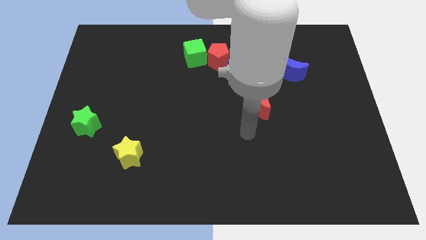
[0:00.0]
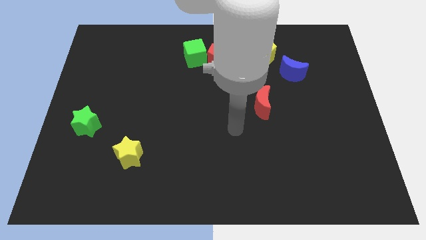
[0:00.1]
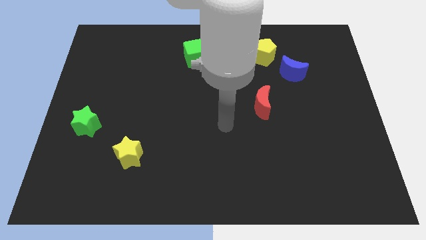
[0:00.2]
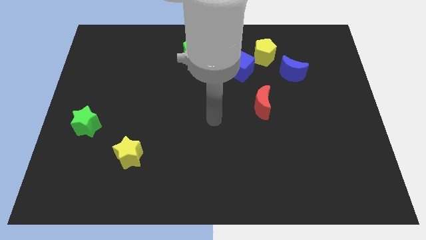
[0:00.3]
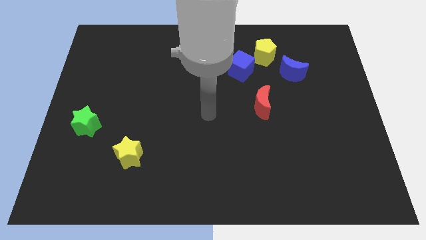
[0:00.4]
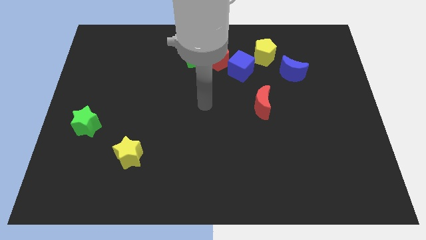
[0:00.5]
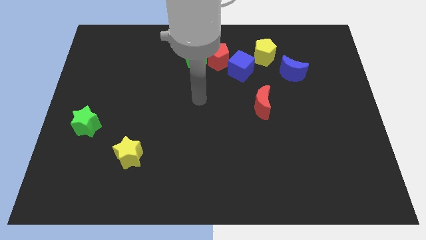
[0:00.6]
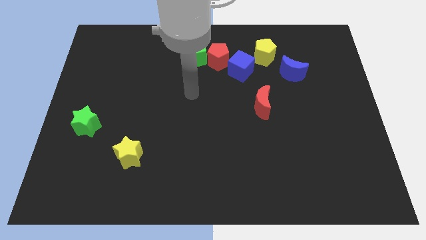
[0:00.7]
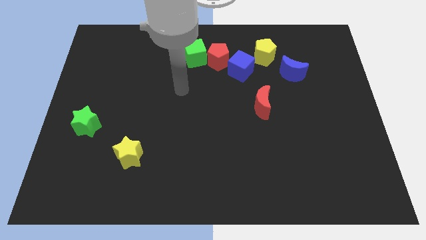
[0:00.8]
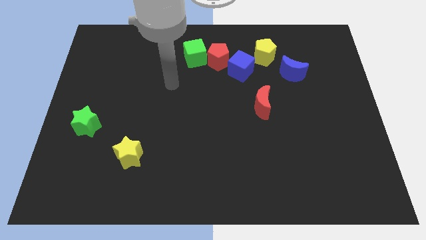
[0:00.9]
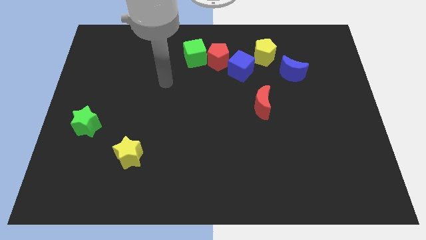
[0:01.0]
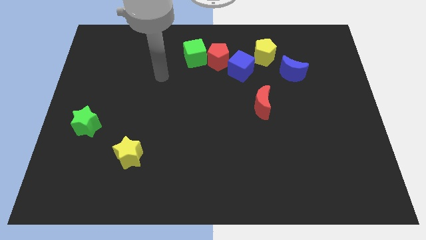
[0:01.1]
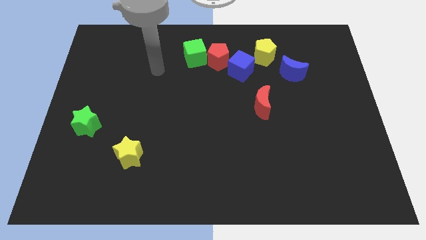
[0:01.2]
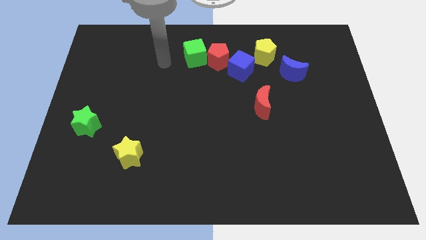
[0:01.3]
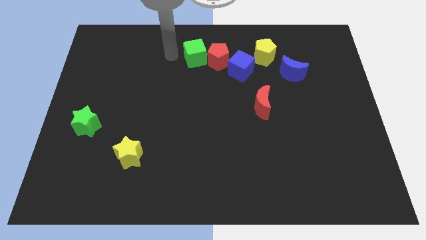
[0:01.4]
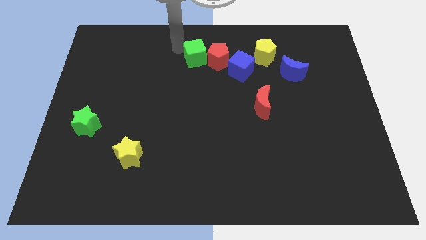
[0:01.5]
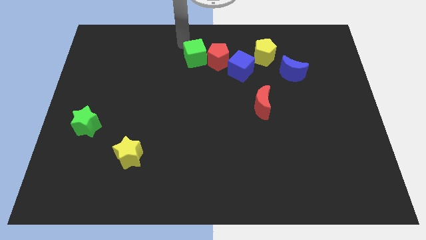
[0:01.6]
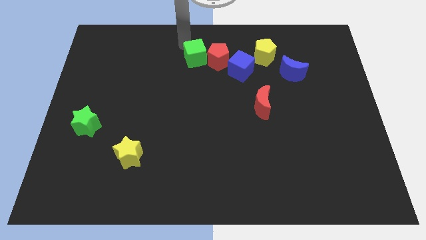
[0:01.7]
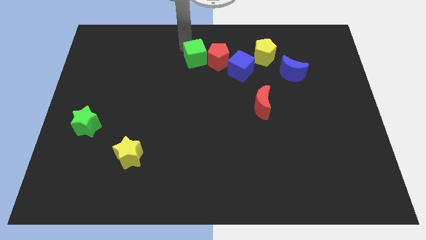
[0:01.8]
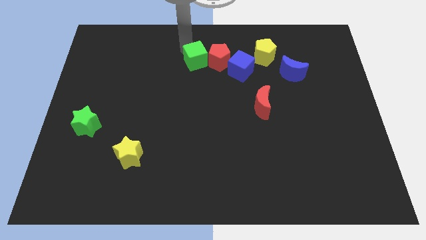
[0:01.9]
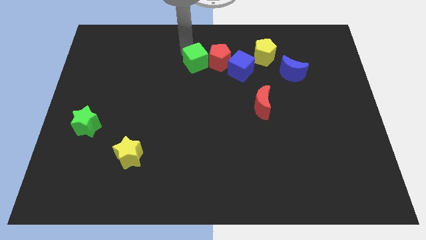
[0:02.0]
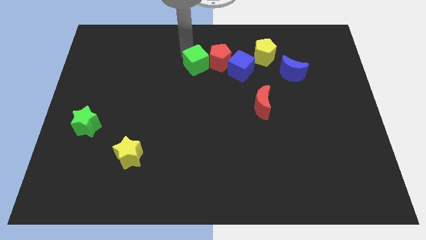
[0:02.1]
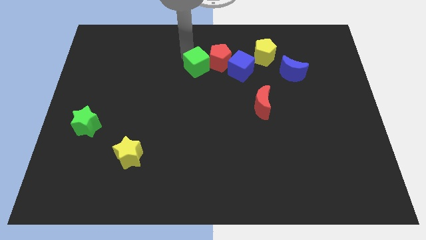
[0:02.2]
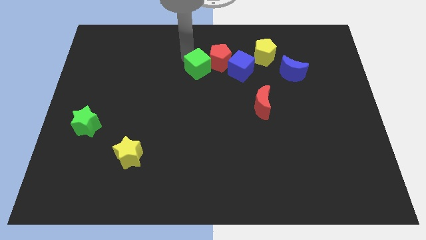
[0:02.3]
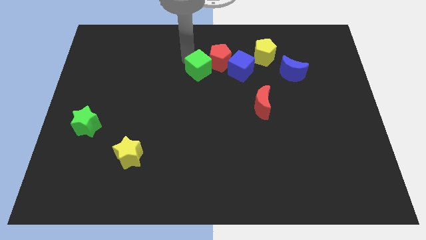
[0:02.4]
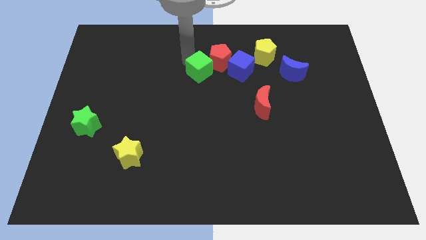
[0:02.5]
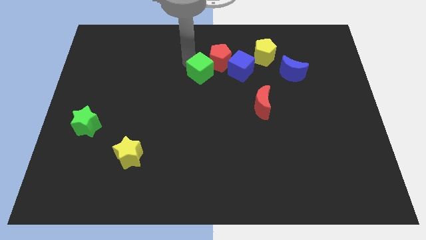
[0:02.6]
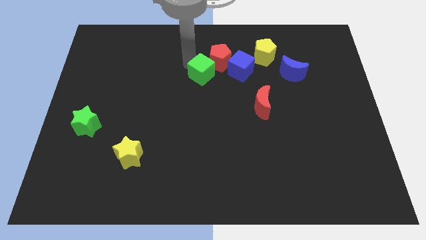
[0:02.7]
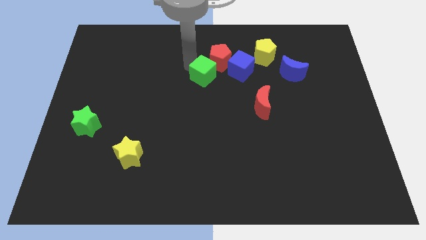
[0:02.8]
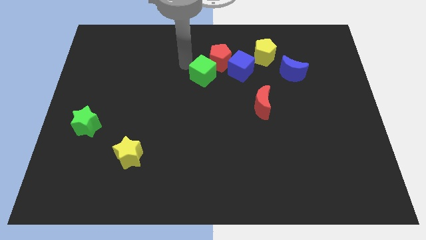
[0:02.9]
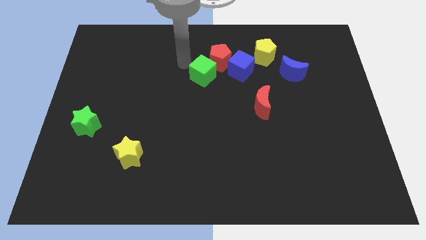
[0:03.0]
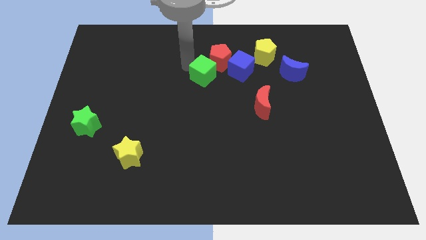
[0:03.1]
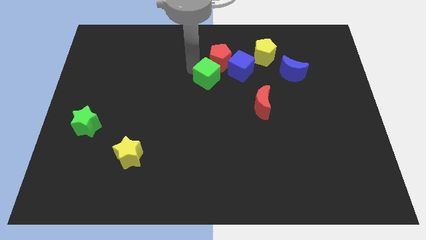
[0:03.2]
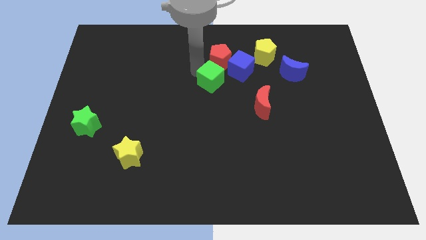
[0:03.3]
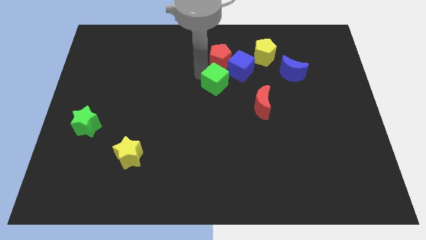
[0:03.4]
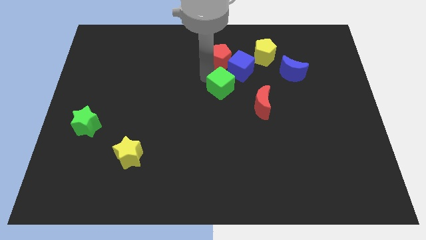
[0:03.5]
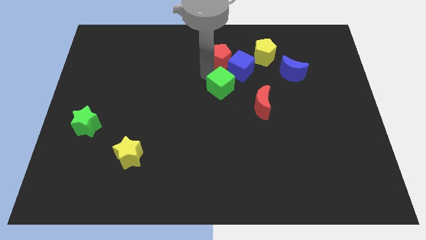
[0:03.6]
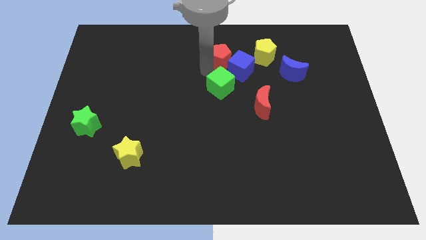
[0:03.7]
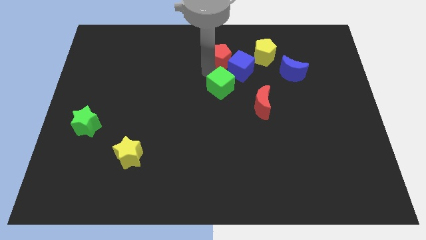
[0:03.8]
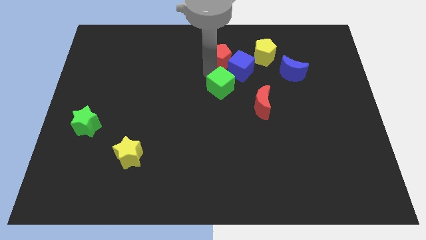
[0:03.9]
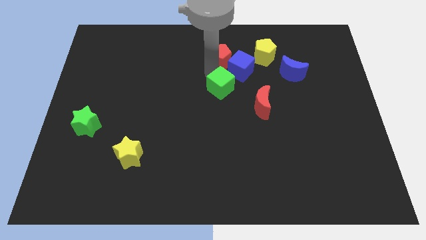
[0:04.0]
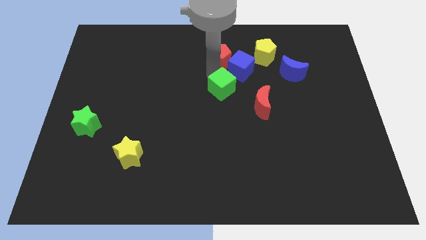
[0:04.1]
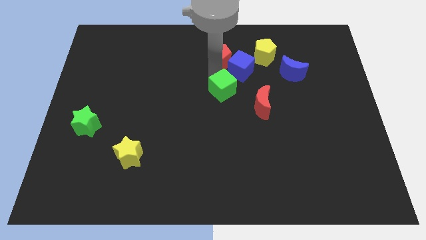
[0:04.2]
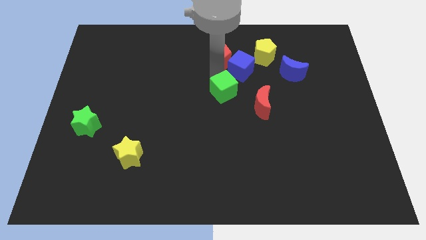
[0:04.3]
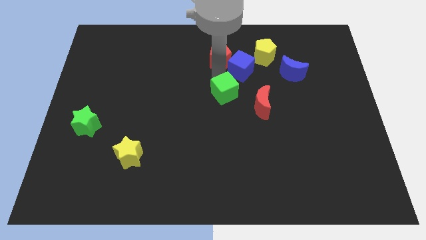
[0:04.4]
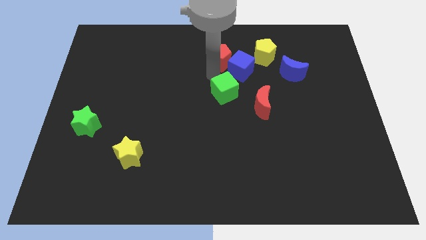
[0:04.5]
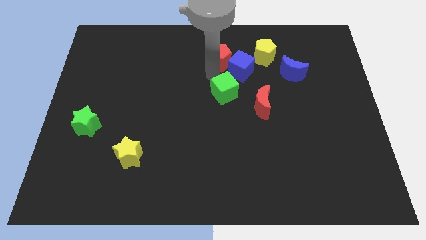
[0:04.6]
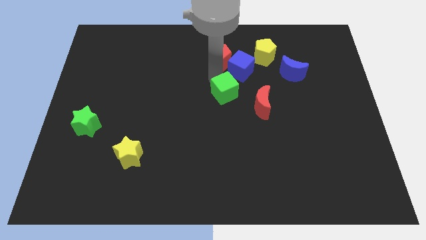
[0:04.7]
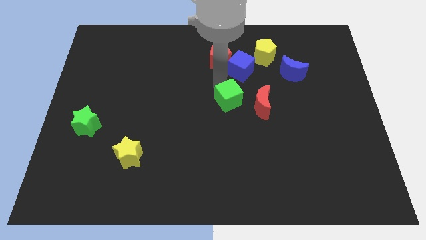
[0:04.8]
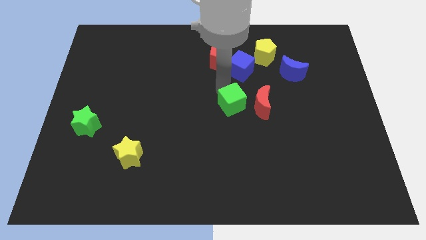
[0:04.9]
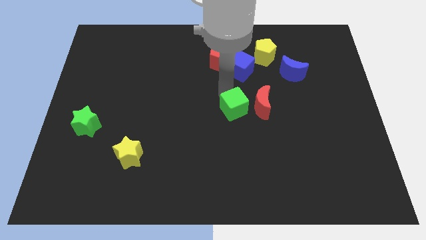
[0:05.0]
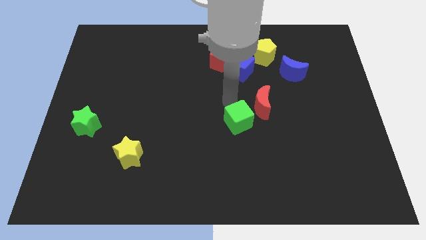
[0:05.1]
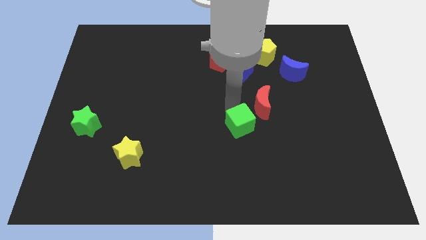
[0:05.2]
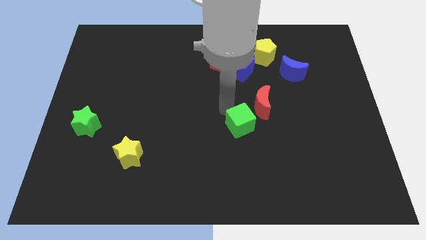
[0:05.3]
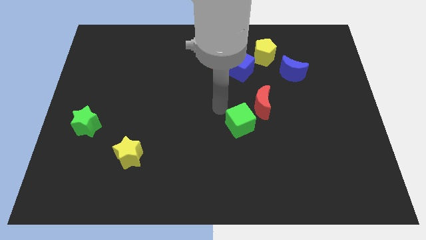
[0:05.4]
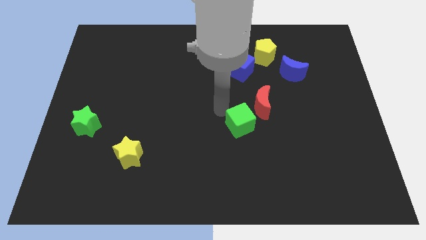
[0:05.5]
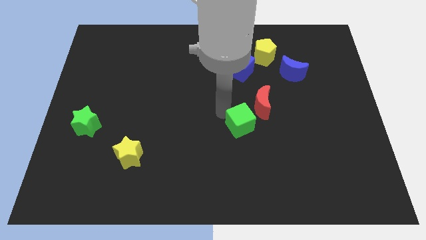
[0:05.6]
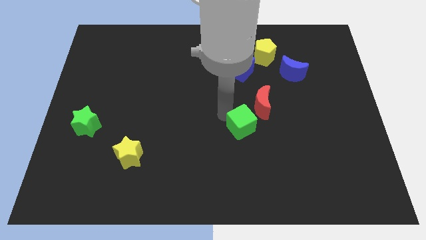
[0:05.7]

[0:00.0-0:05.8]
put the green cube below the red moon

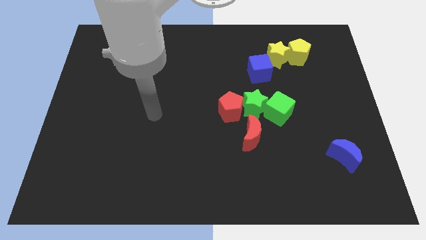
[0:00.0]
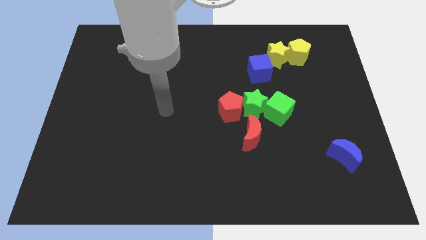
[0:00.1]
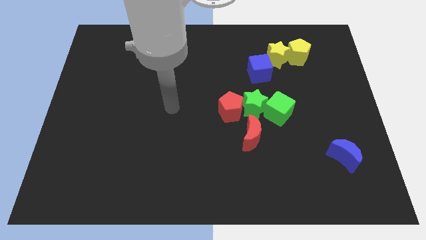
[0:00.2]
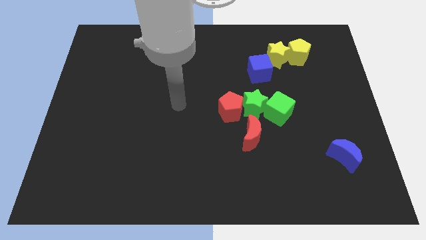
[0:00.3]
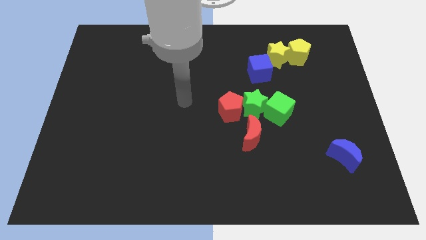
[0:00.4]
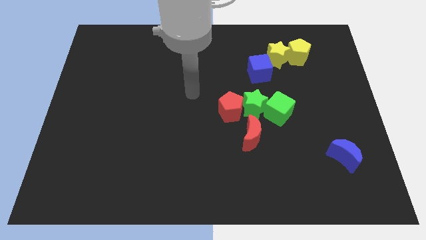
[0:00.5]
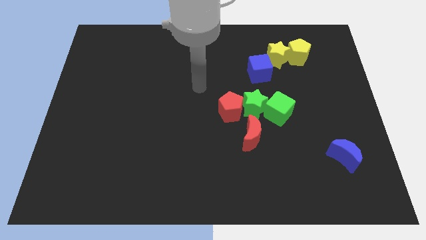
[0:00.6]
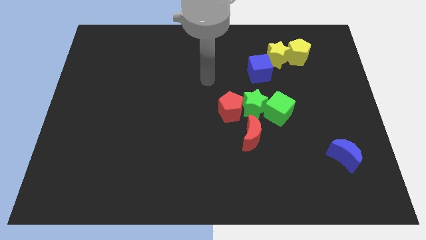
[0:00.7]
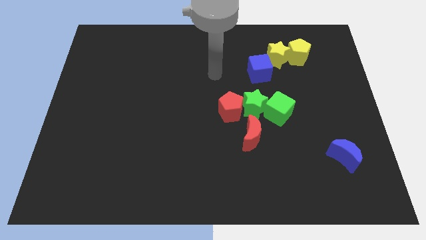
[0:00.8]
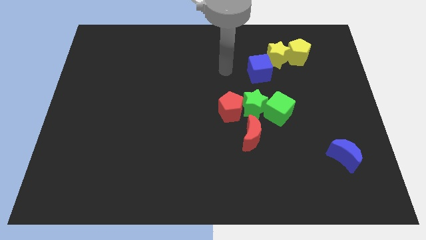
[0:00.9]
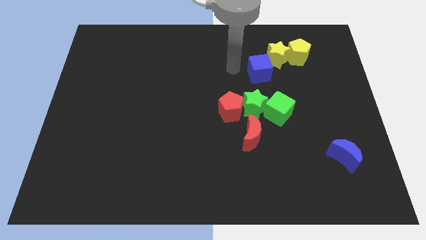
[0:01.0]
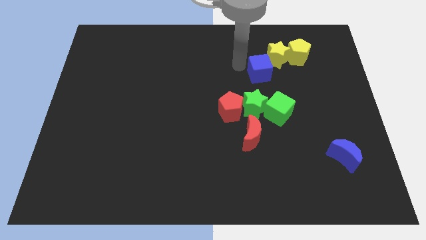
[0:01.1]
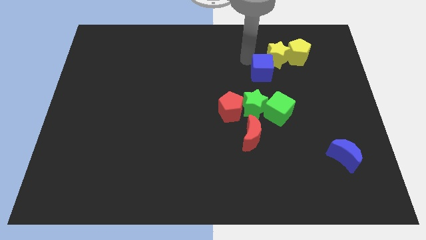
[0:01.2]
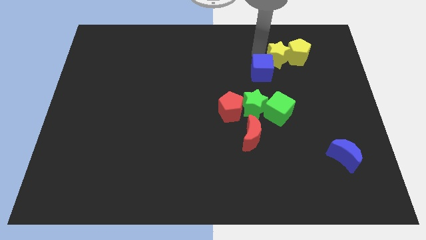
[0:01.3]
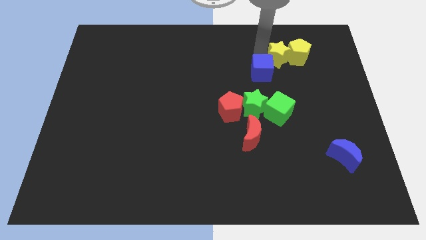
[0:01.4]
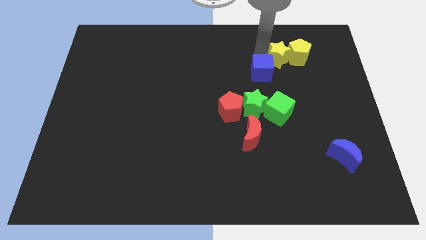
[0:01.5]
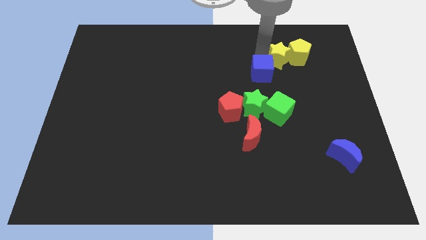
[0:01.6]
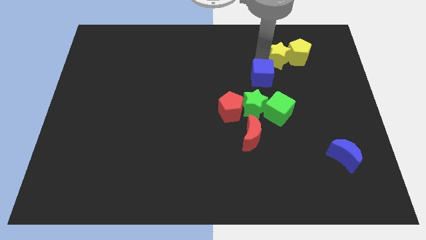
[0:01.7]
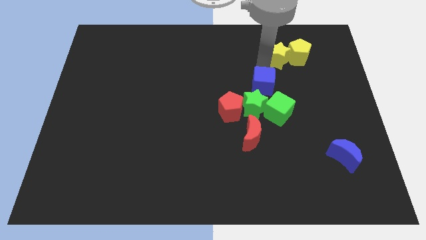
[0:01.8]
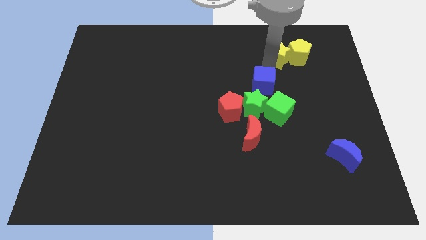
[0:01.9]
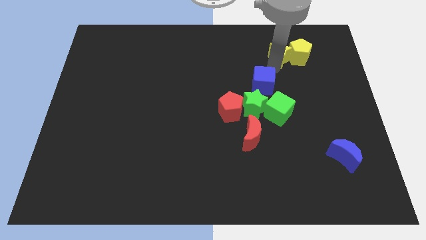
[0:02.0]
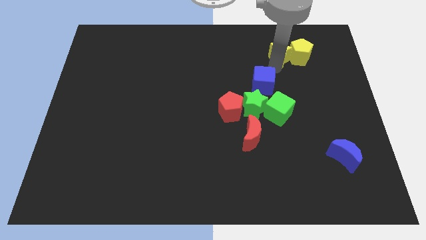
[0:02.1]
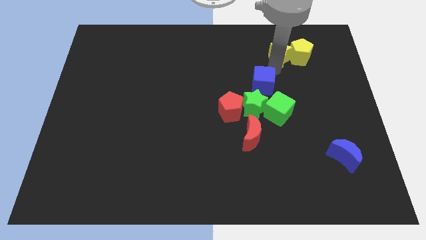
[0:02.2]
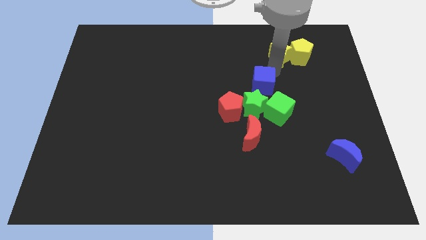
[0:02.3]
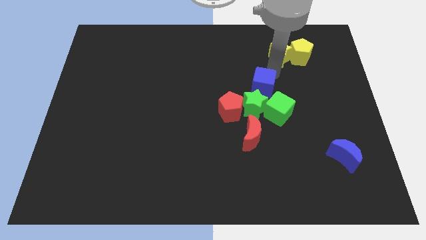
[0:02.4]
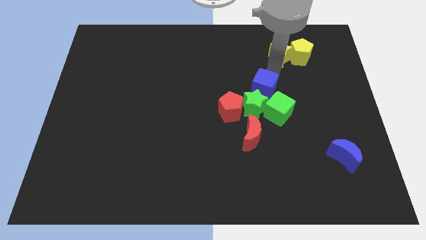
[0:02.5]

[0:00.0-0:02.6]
push the blue cube above the red moon
